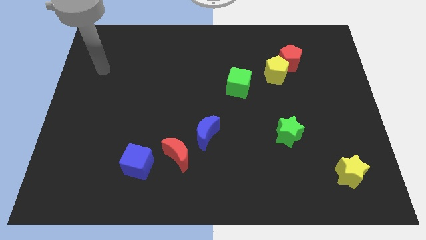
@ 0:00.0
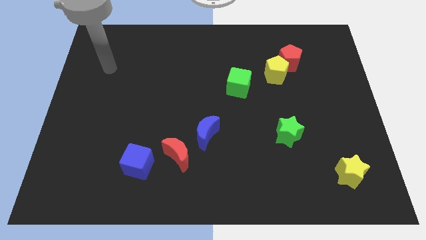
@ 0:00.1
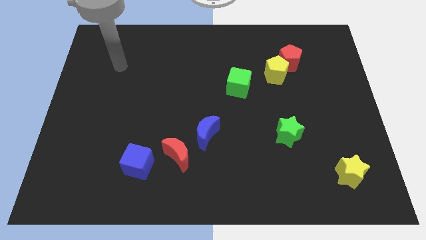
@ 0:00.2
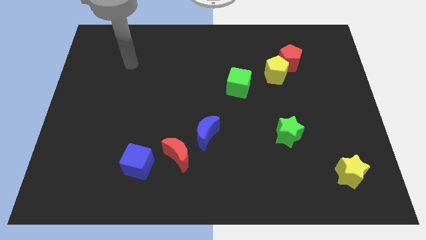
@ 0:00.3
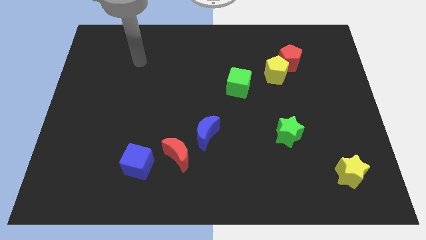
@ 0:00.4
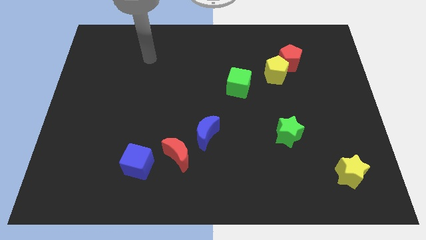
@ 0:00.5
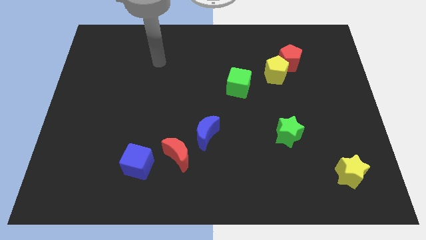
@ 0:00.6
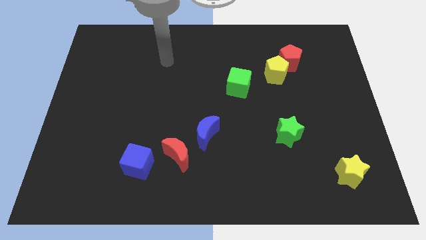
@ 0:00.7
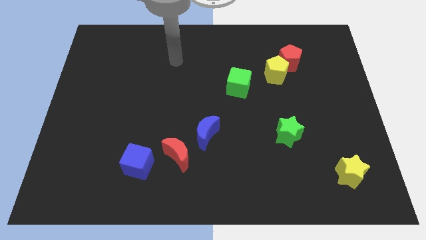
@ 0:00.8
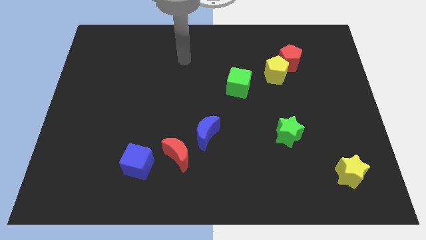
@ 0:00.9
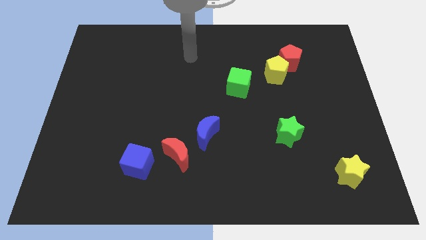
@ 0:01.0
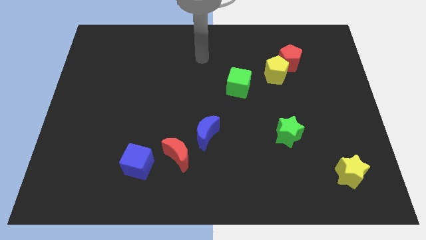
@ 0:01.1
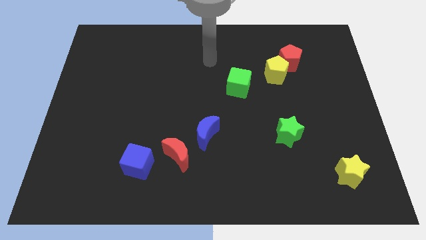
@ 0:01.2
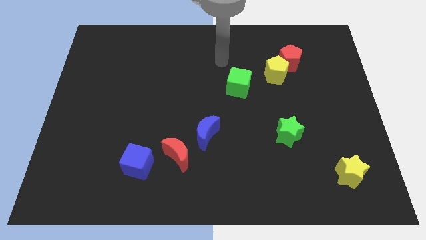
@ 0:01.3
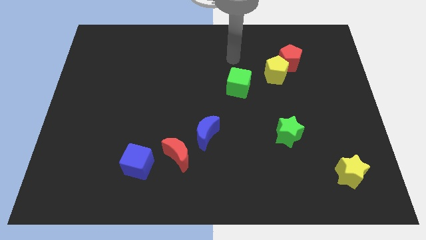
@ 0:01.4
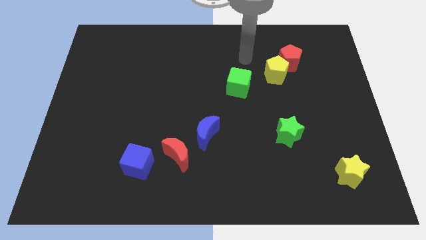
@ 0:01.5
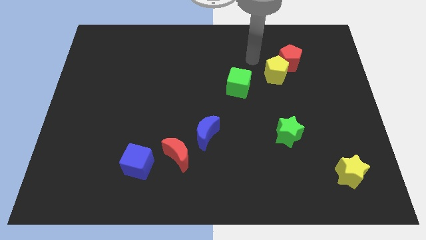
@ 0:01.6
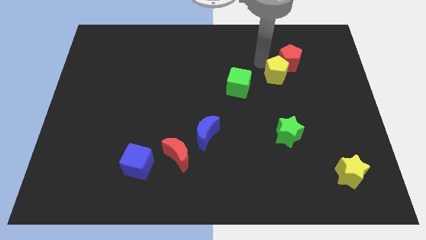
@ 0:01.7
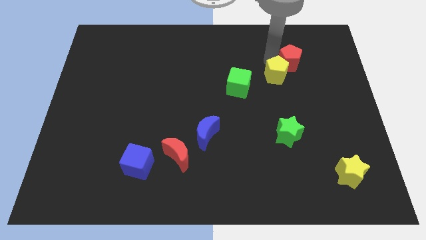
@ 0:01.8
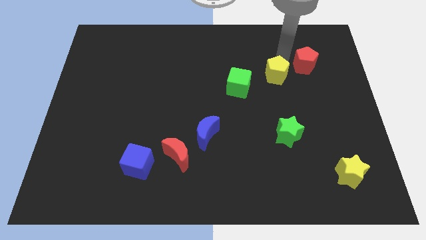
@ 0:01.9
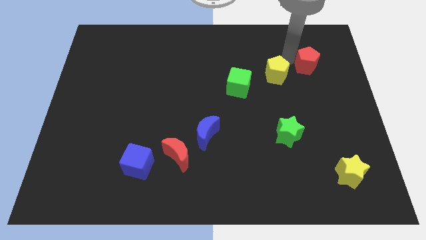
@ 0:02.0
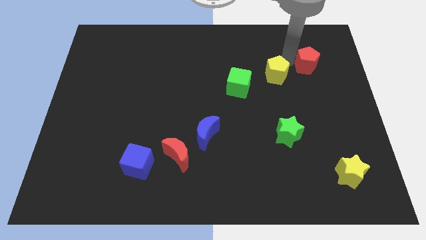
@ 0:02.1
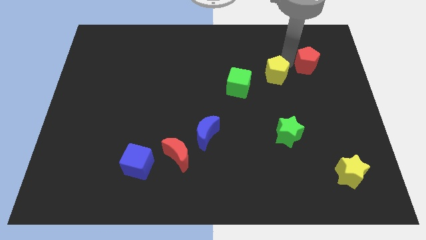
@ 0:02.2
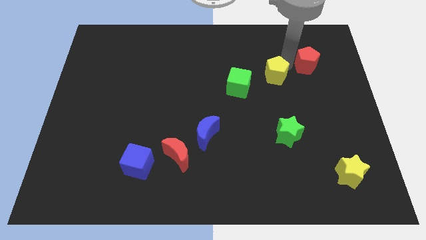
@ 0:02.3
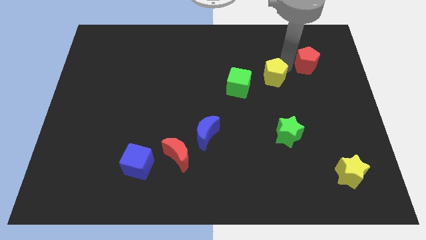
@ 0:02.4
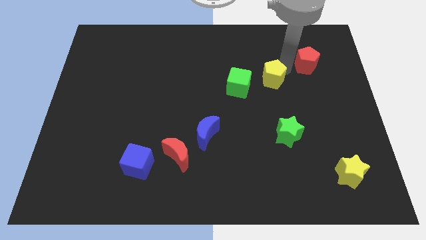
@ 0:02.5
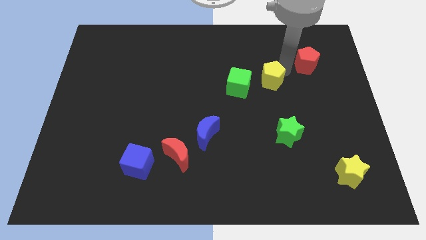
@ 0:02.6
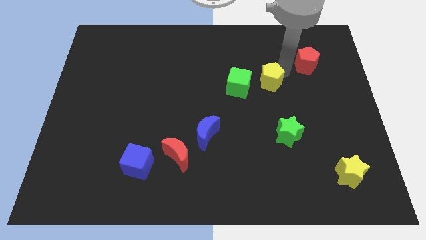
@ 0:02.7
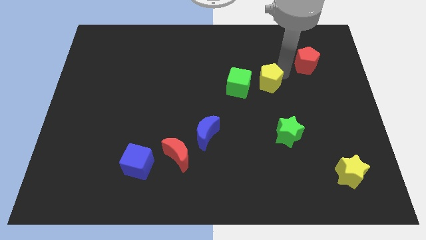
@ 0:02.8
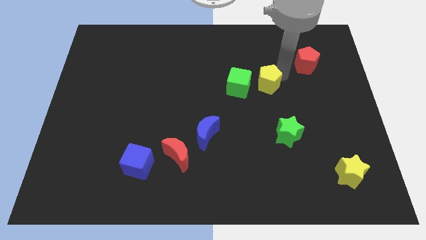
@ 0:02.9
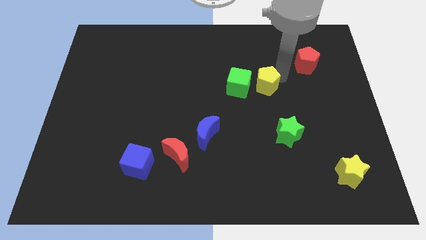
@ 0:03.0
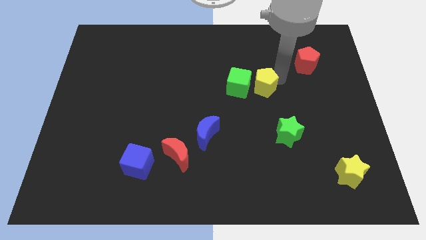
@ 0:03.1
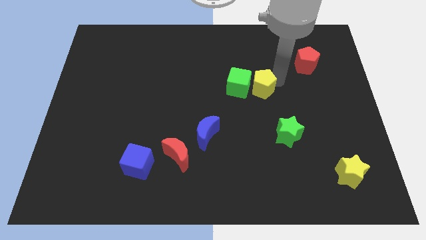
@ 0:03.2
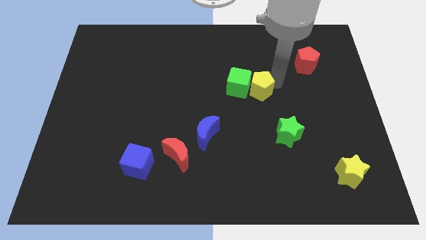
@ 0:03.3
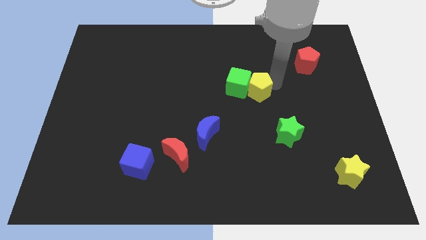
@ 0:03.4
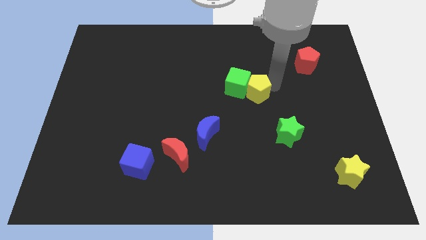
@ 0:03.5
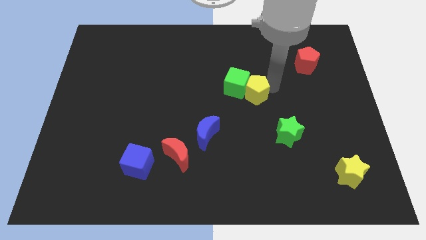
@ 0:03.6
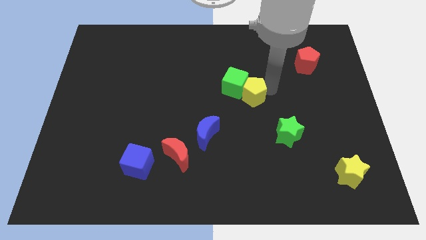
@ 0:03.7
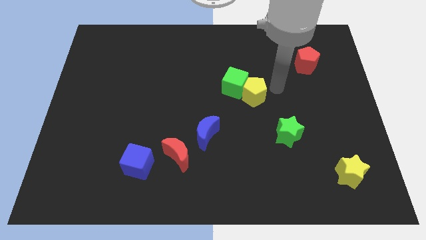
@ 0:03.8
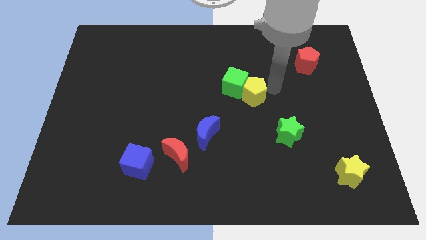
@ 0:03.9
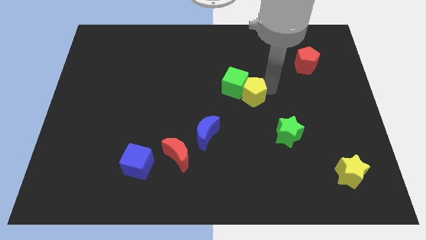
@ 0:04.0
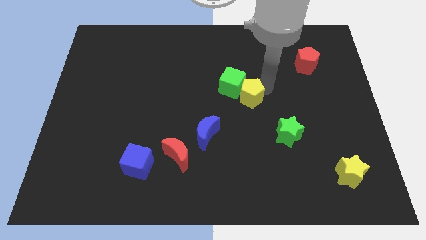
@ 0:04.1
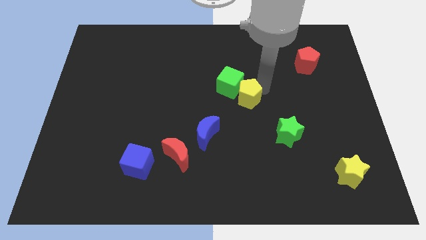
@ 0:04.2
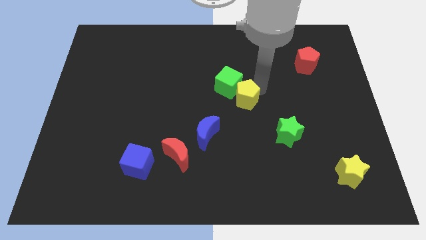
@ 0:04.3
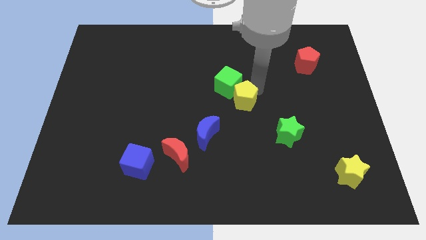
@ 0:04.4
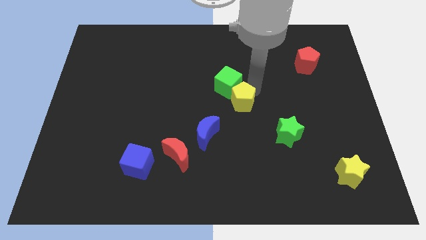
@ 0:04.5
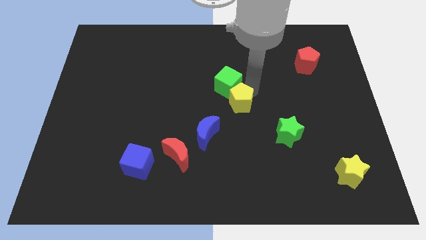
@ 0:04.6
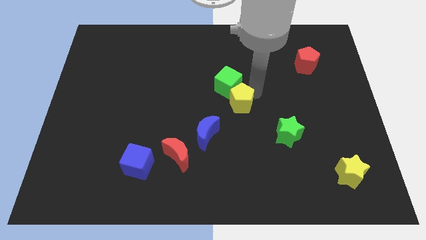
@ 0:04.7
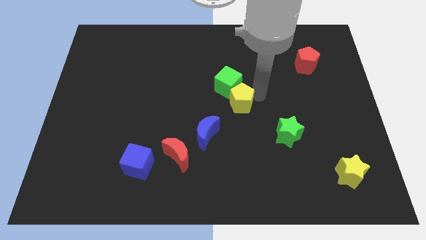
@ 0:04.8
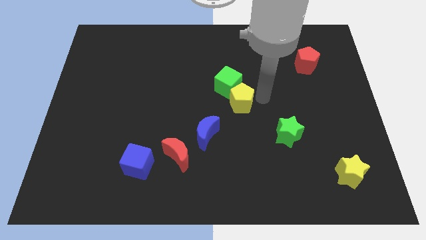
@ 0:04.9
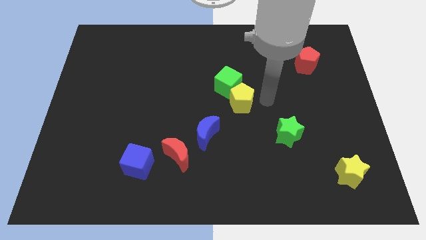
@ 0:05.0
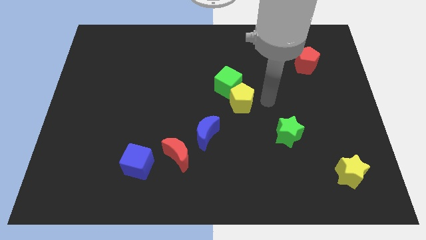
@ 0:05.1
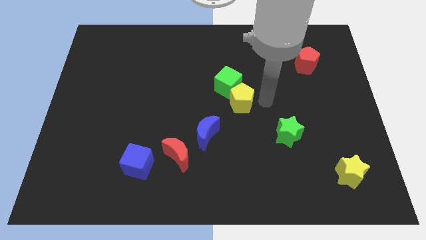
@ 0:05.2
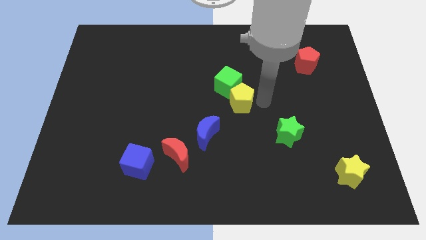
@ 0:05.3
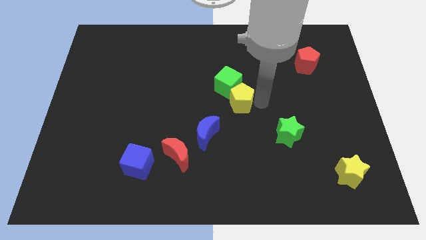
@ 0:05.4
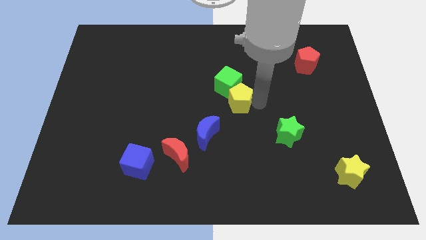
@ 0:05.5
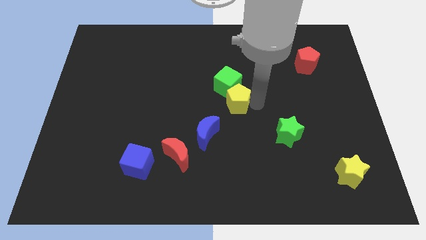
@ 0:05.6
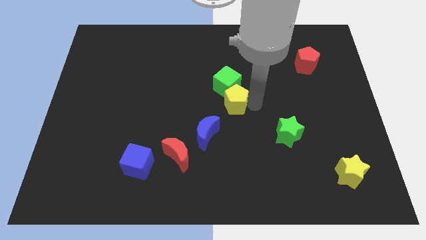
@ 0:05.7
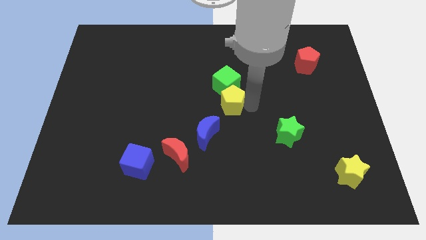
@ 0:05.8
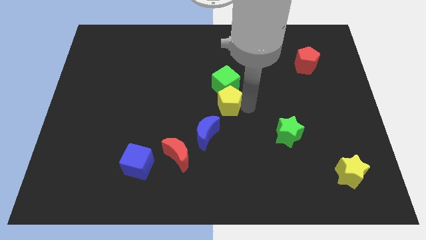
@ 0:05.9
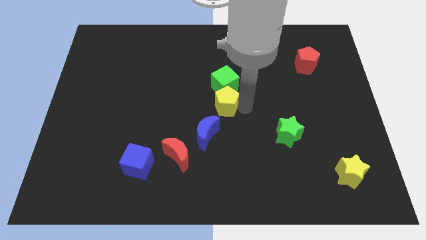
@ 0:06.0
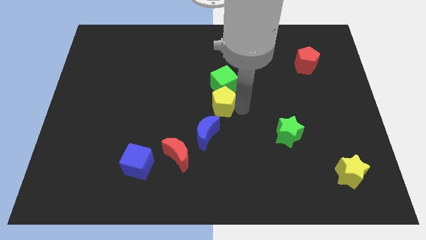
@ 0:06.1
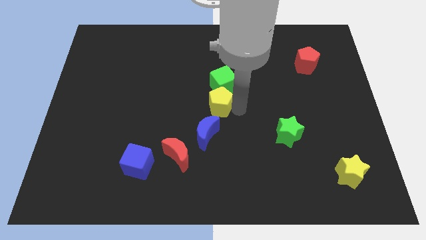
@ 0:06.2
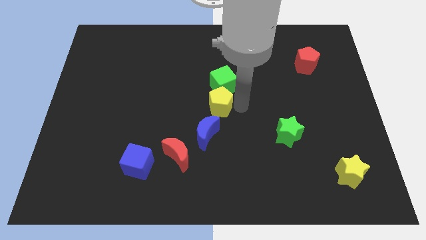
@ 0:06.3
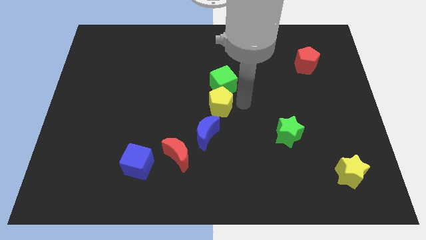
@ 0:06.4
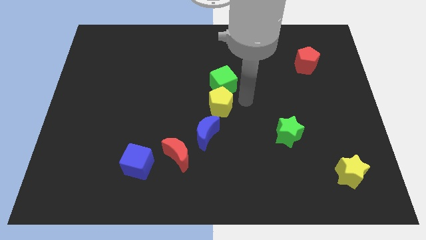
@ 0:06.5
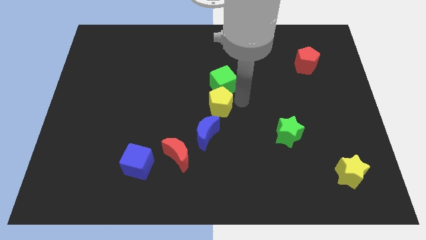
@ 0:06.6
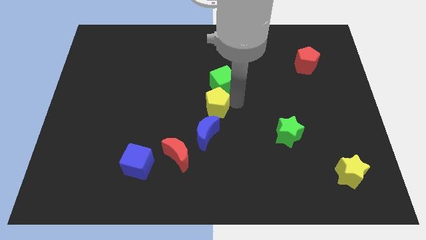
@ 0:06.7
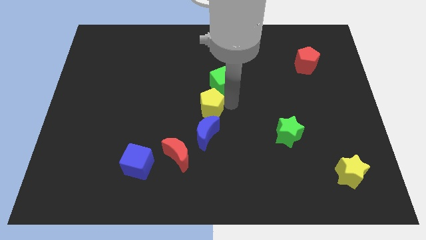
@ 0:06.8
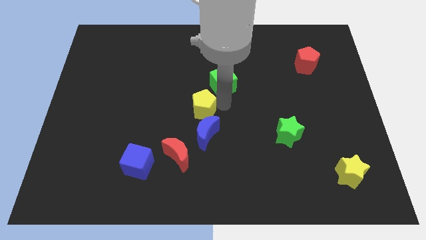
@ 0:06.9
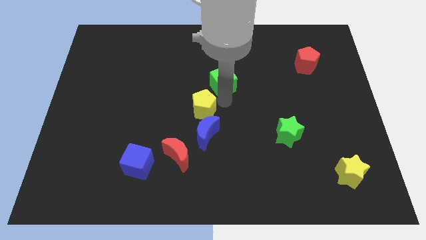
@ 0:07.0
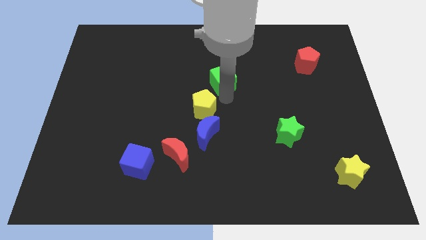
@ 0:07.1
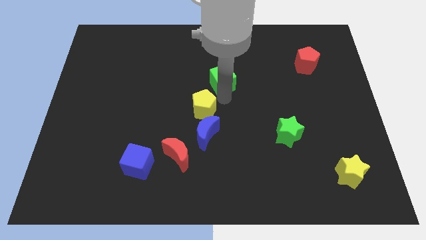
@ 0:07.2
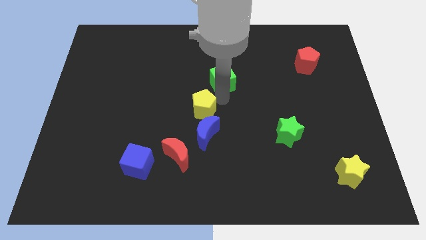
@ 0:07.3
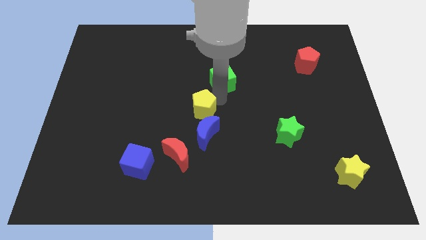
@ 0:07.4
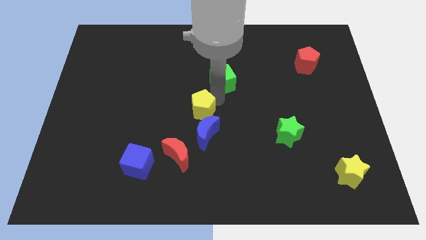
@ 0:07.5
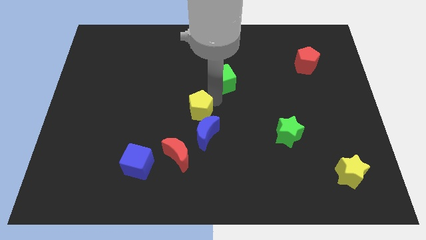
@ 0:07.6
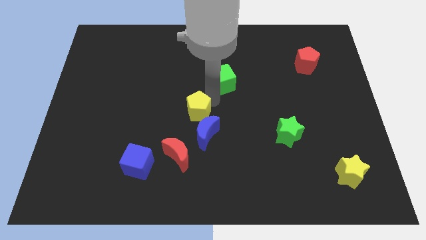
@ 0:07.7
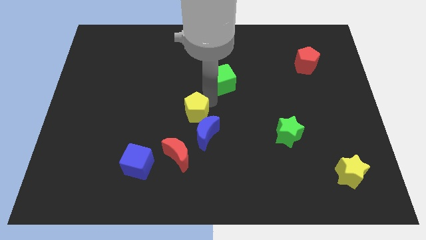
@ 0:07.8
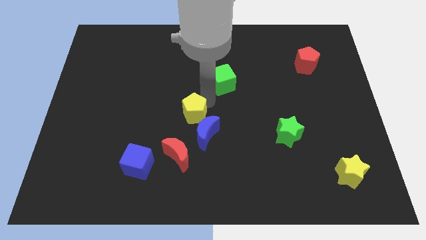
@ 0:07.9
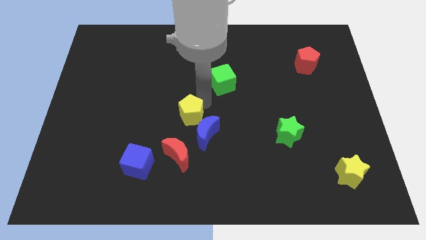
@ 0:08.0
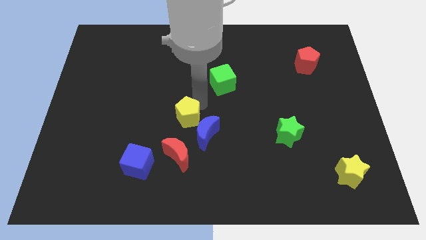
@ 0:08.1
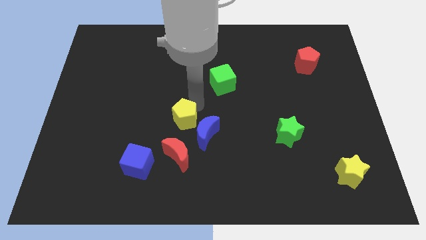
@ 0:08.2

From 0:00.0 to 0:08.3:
put the yellow pentagon just left of the blue moon
